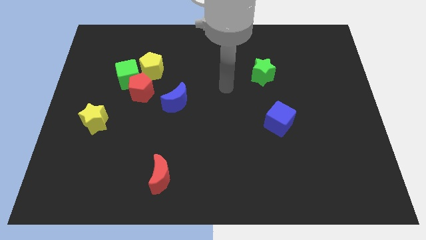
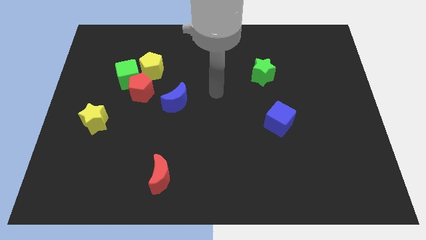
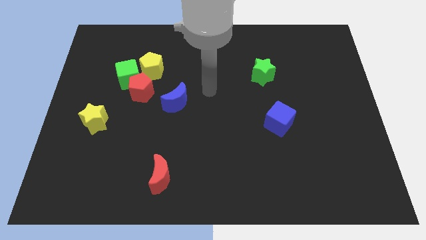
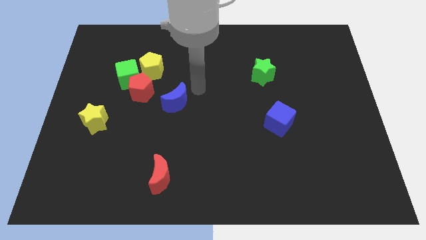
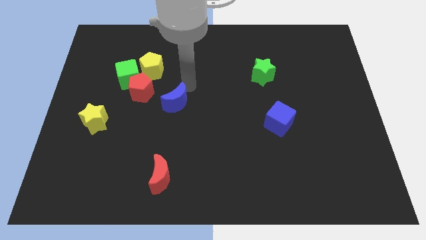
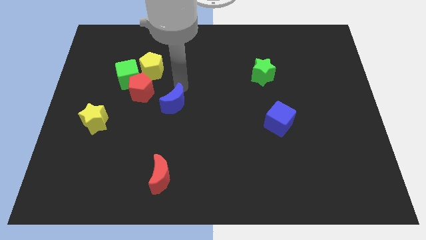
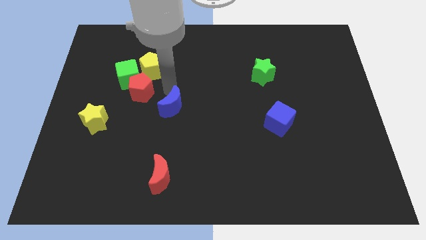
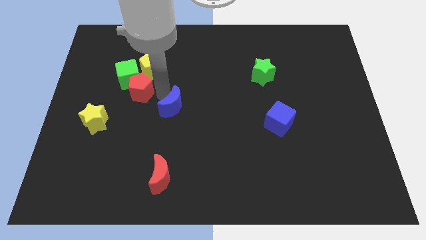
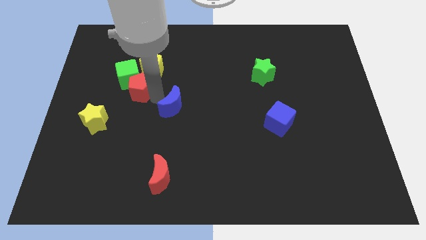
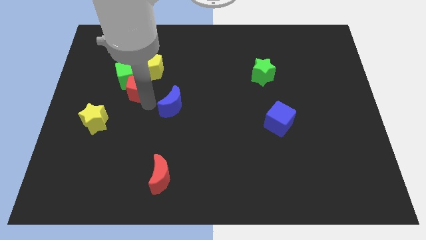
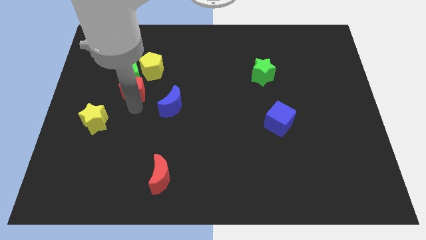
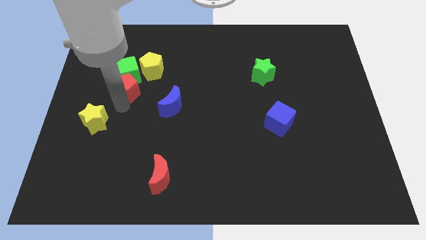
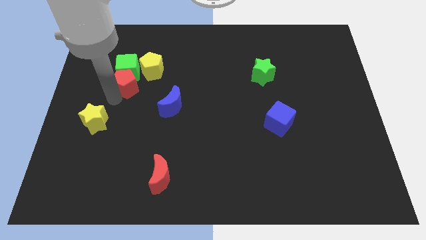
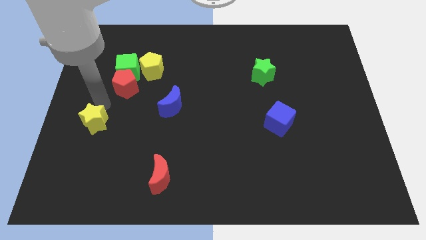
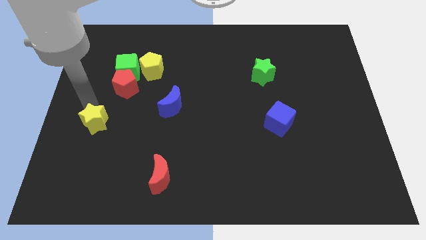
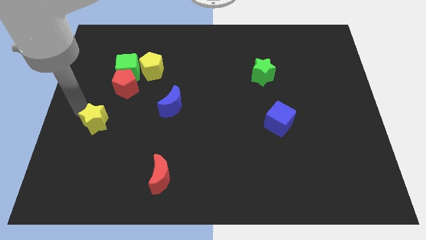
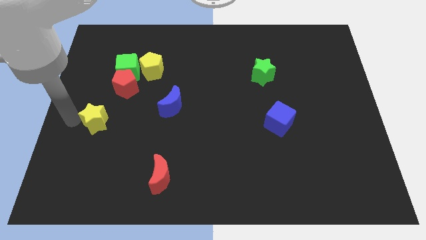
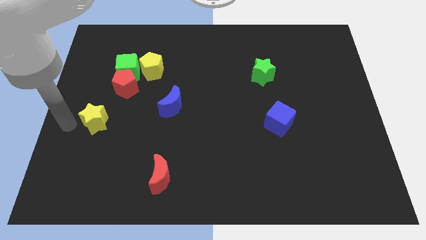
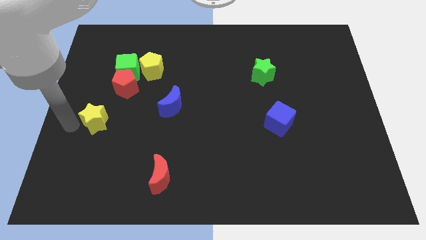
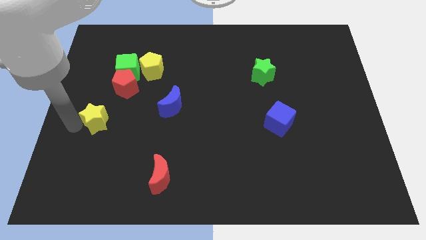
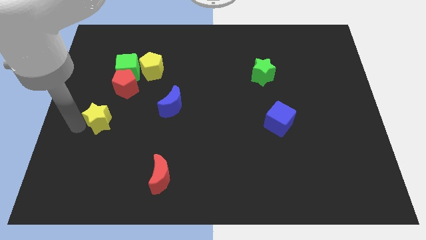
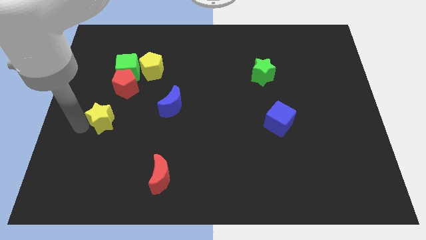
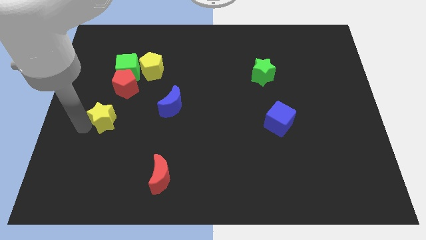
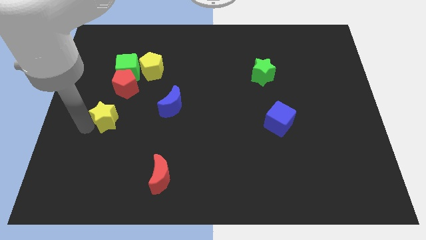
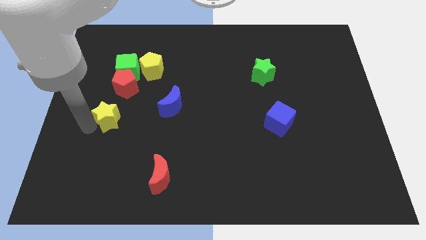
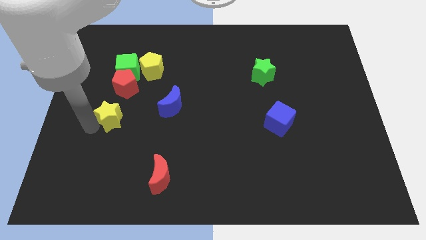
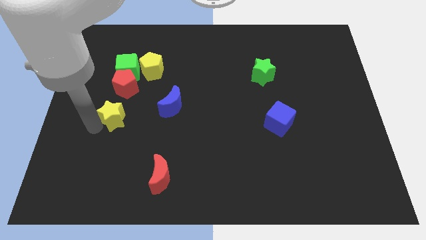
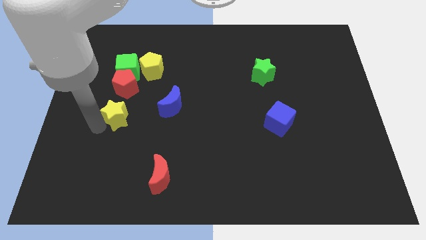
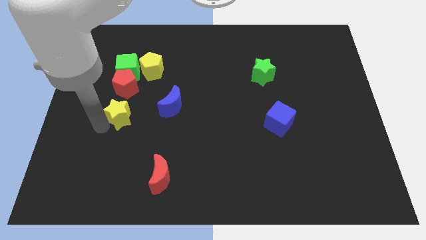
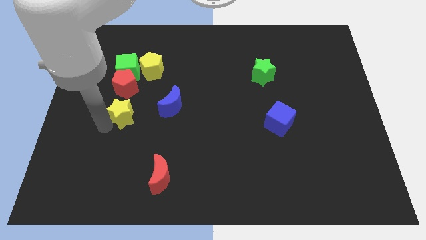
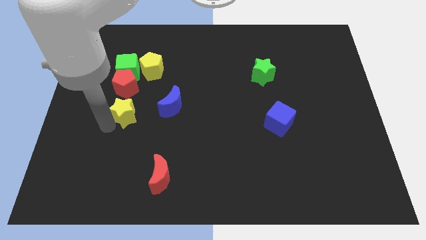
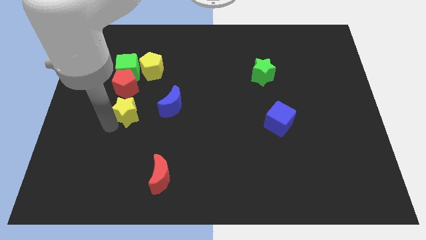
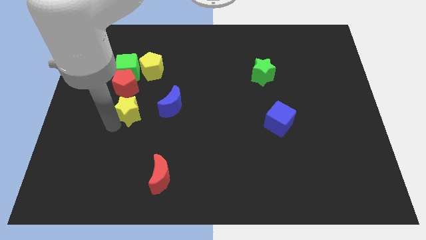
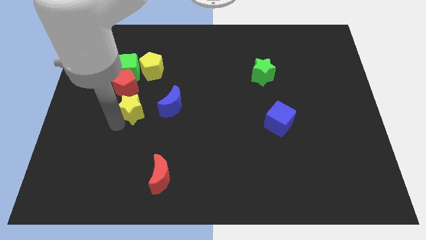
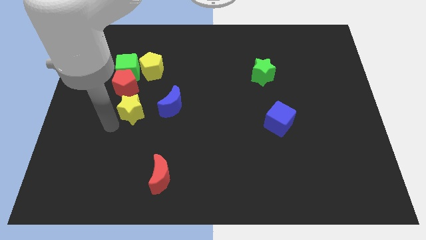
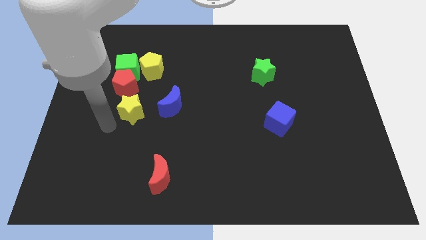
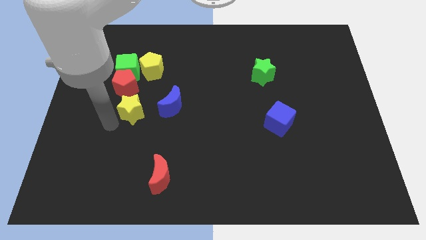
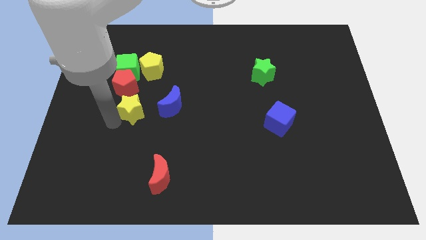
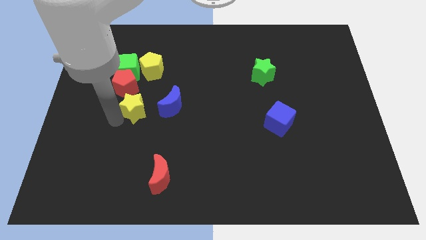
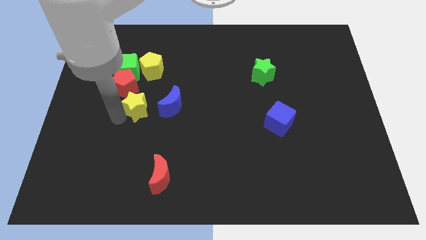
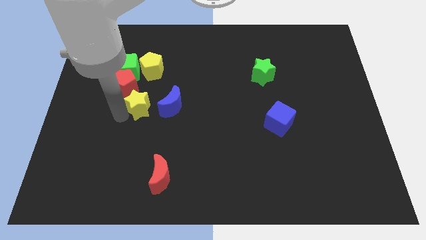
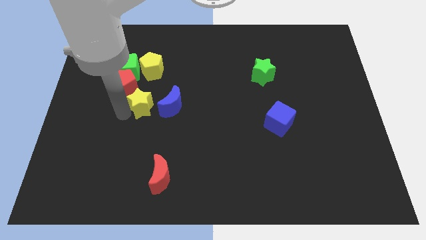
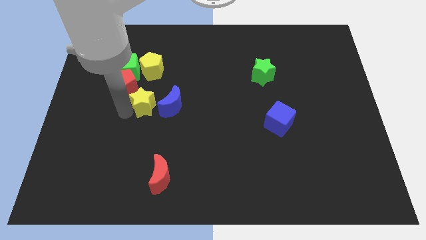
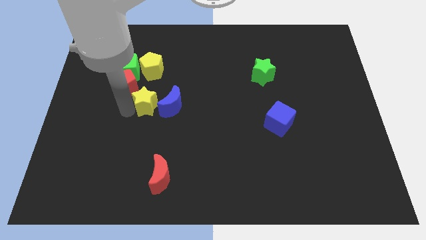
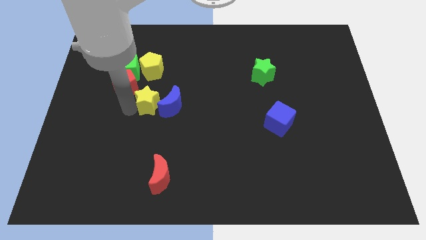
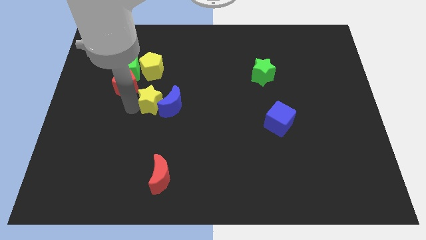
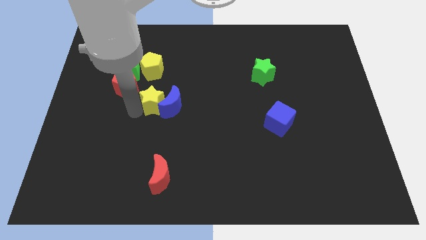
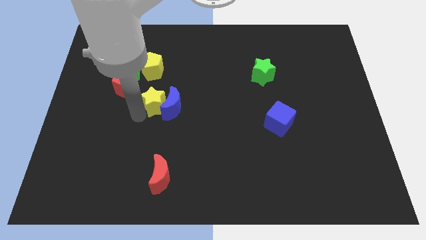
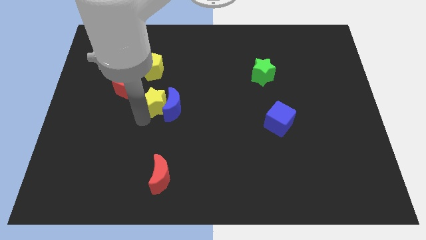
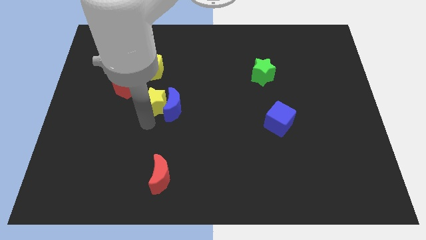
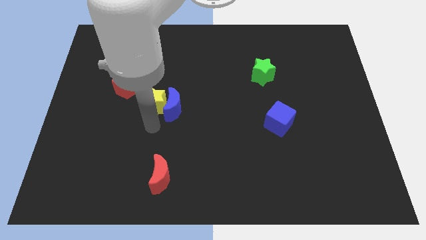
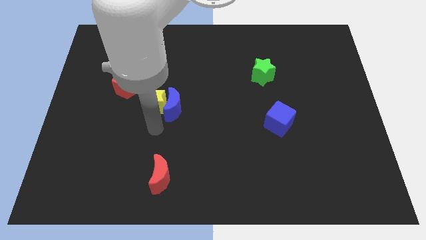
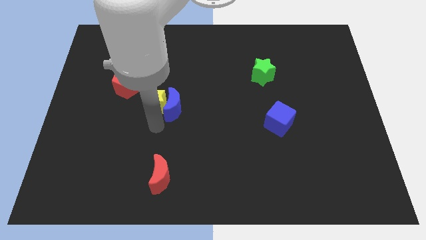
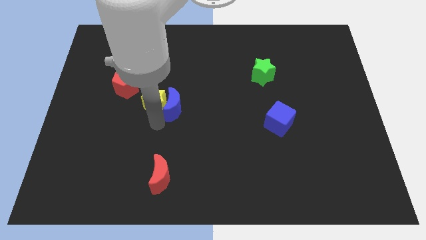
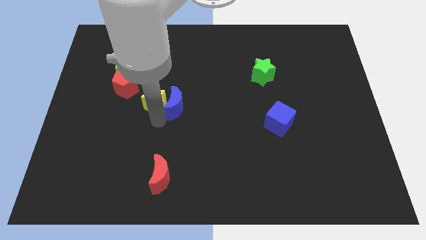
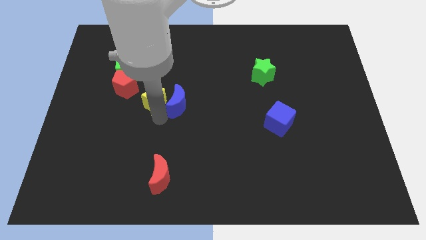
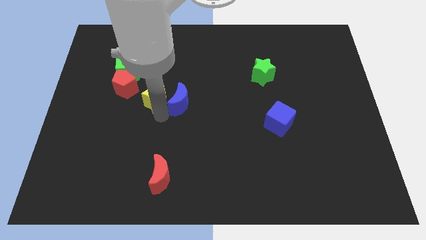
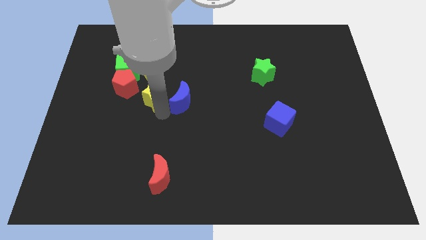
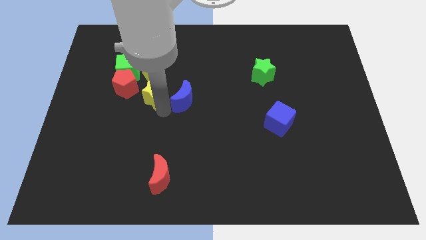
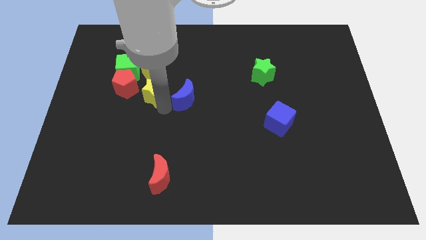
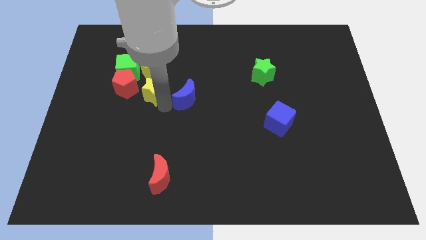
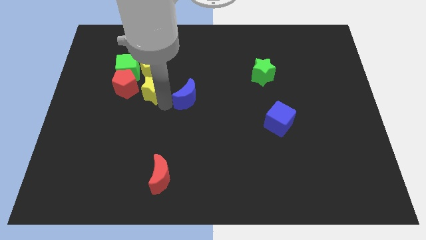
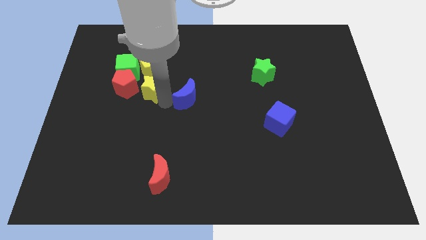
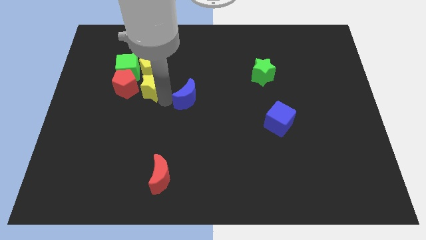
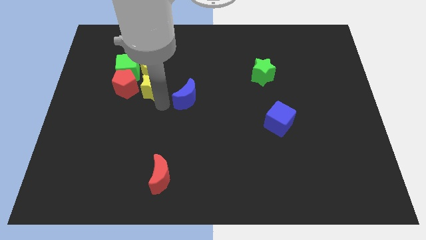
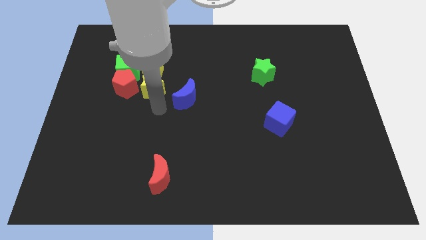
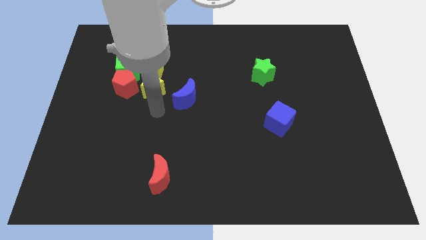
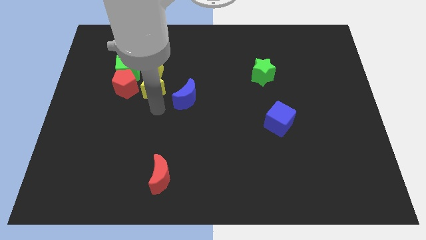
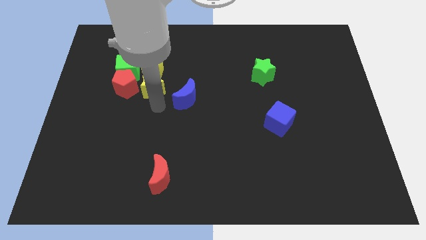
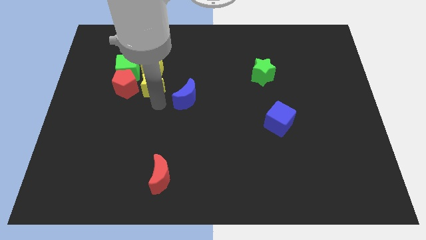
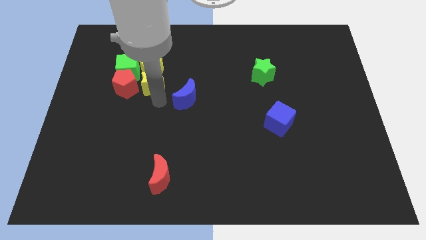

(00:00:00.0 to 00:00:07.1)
push the yellow star to the yellow pentagon
